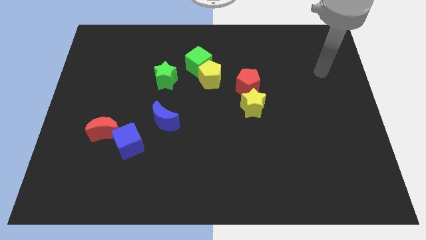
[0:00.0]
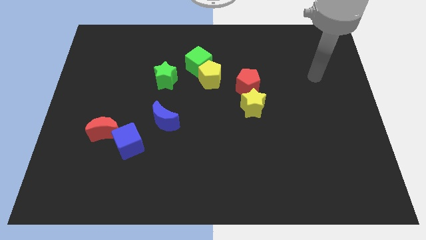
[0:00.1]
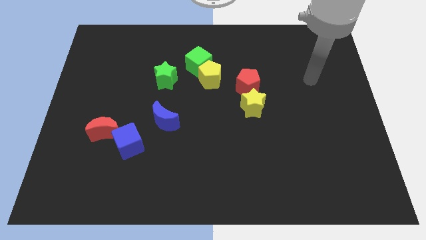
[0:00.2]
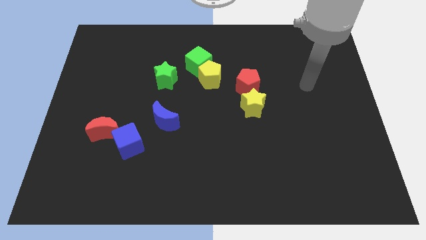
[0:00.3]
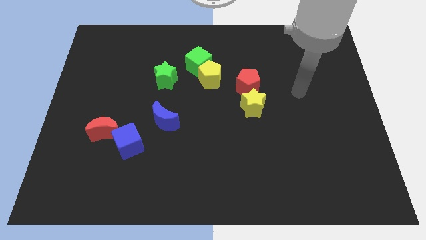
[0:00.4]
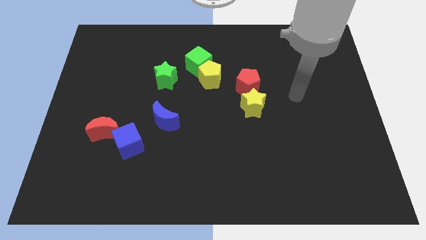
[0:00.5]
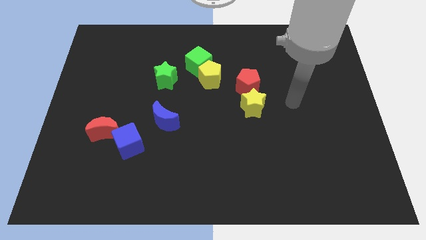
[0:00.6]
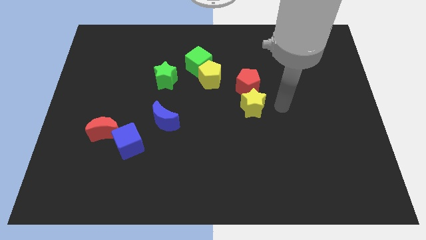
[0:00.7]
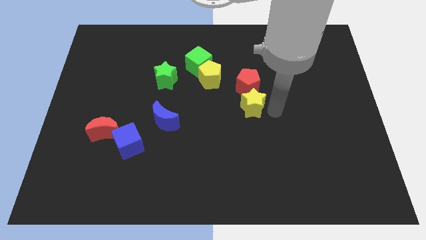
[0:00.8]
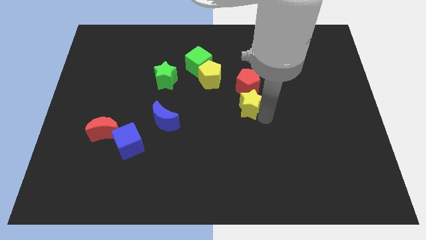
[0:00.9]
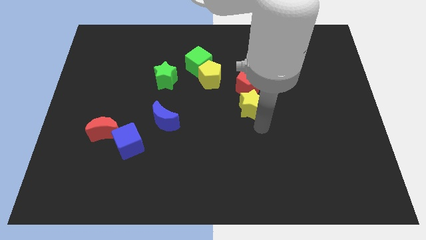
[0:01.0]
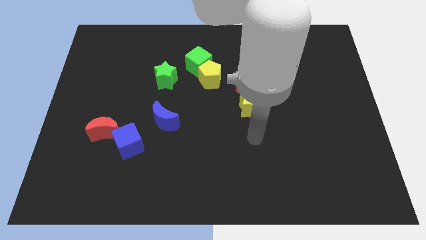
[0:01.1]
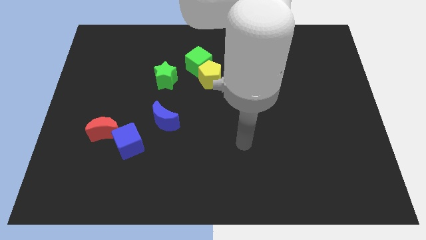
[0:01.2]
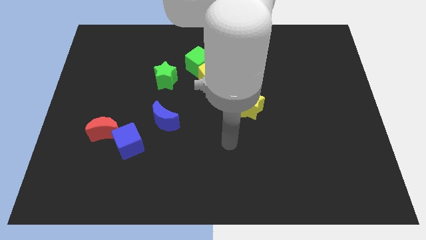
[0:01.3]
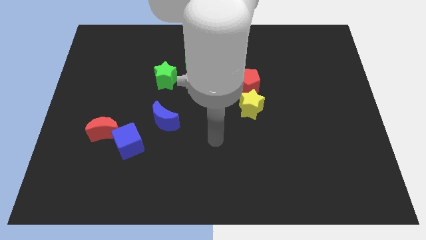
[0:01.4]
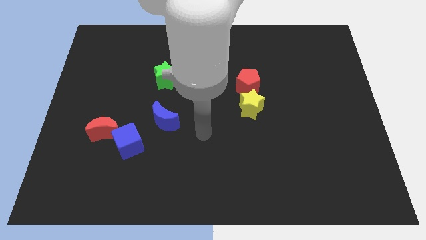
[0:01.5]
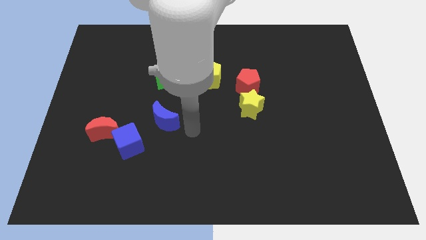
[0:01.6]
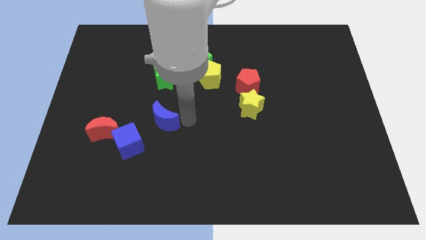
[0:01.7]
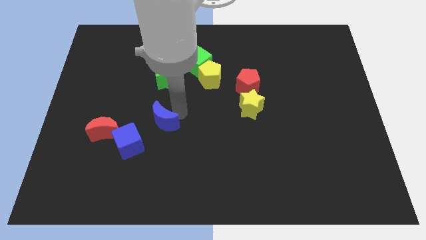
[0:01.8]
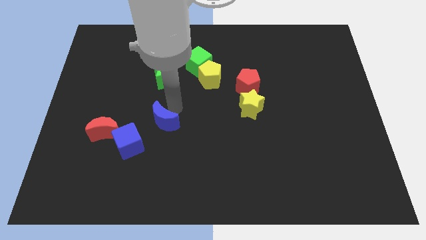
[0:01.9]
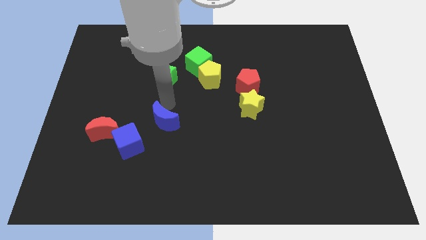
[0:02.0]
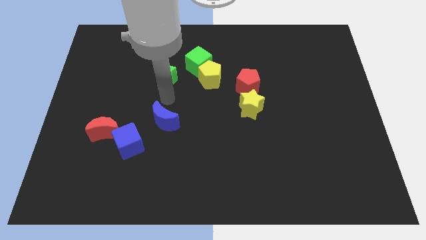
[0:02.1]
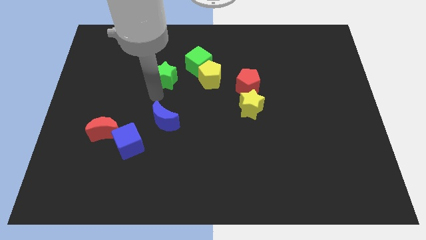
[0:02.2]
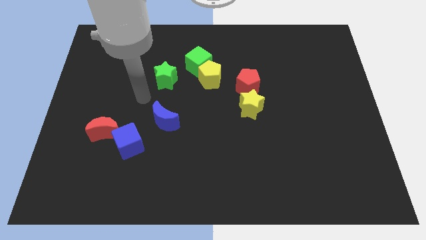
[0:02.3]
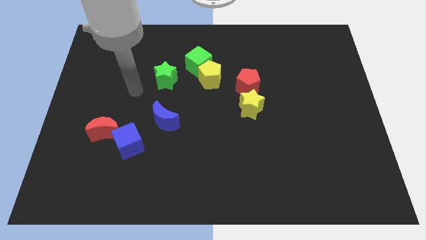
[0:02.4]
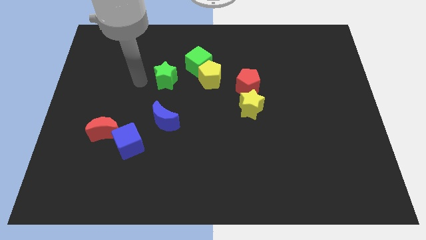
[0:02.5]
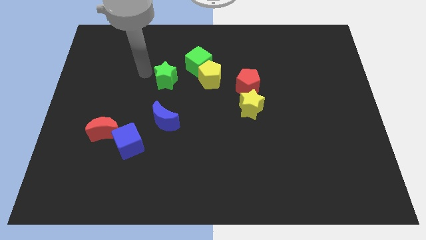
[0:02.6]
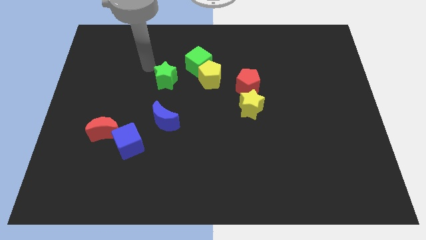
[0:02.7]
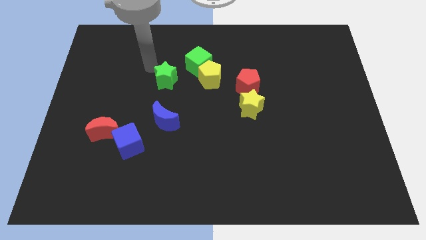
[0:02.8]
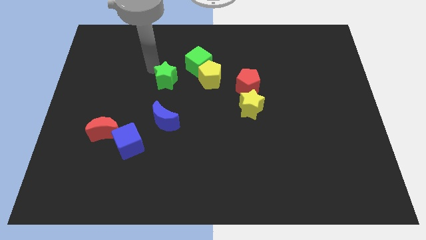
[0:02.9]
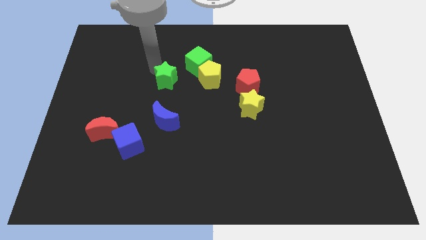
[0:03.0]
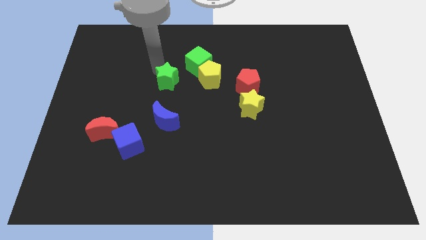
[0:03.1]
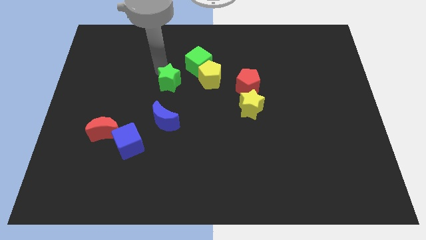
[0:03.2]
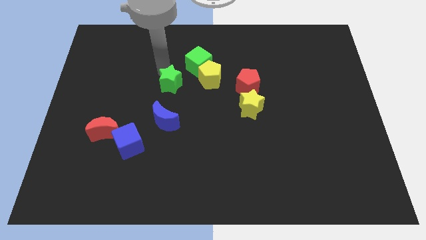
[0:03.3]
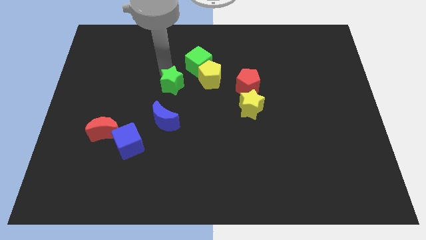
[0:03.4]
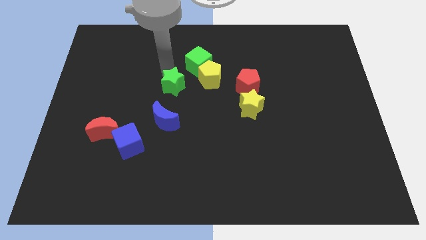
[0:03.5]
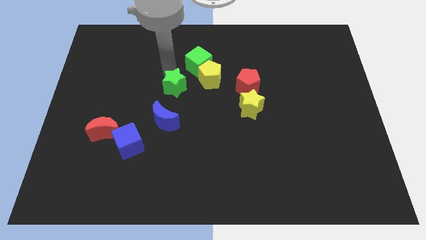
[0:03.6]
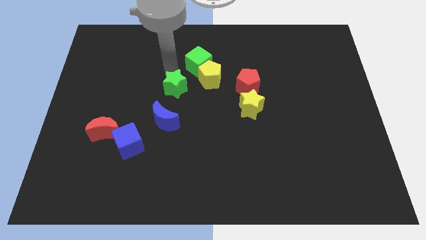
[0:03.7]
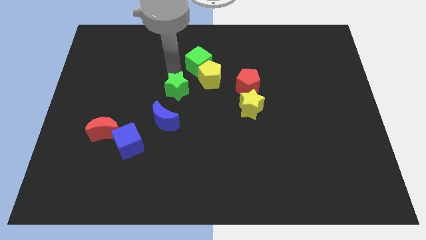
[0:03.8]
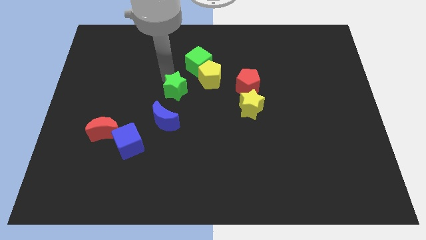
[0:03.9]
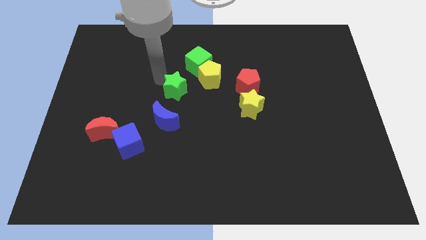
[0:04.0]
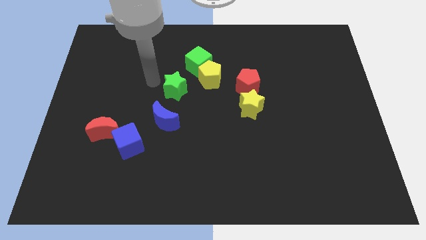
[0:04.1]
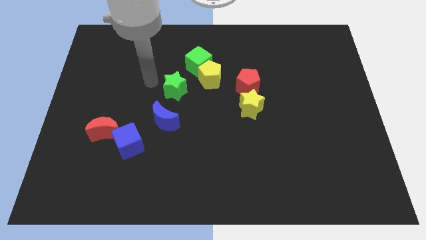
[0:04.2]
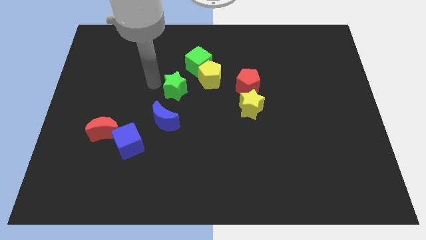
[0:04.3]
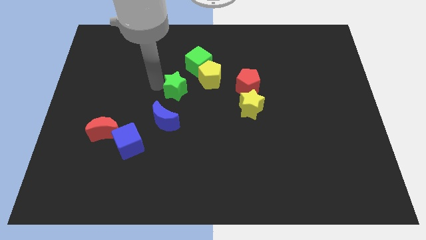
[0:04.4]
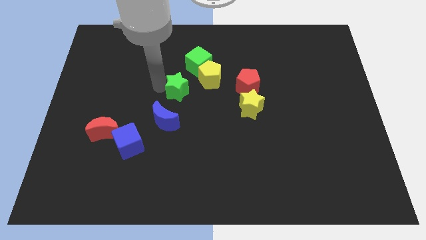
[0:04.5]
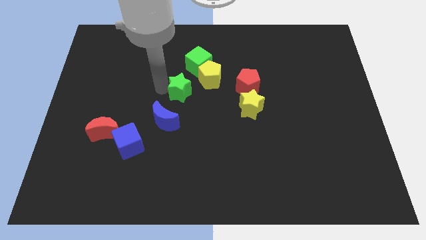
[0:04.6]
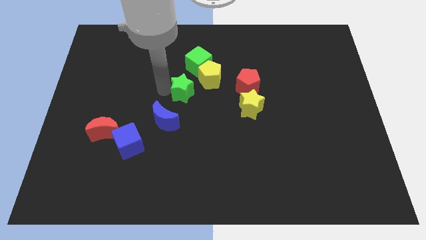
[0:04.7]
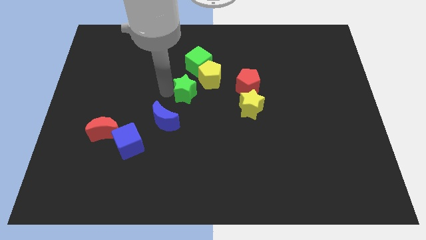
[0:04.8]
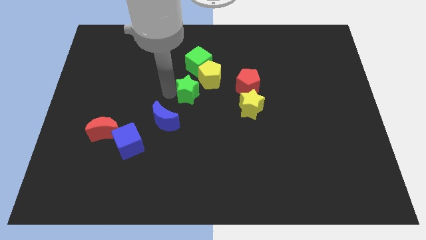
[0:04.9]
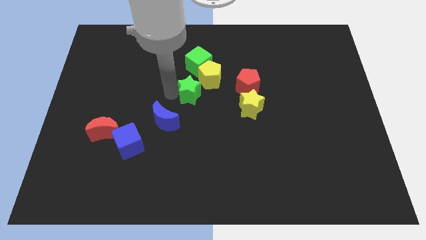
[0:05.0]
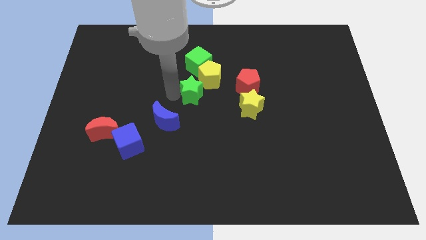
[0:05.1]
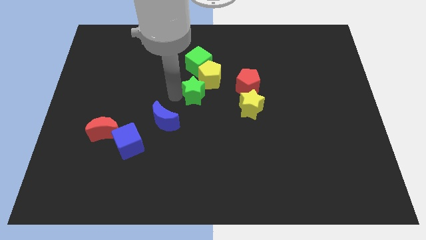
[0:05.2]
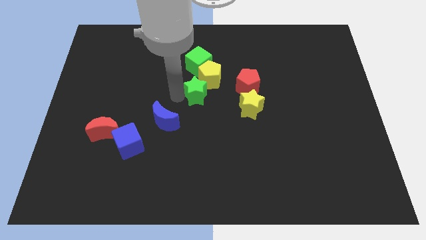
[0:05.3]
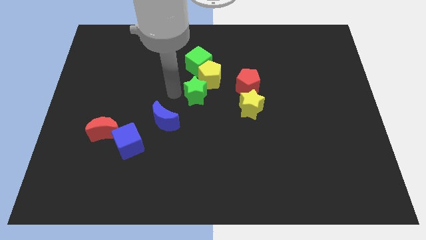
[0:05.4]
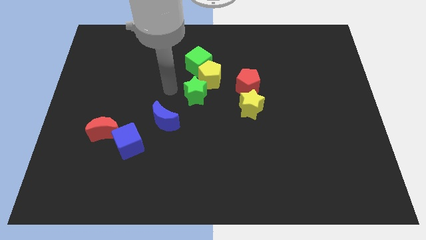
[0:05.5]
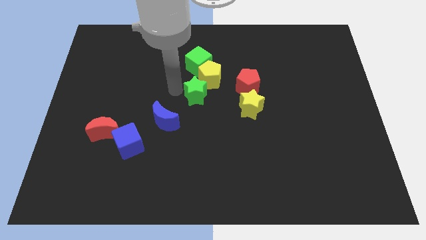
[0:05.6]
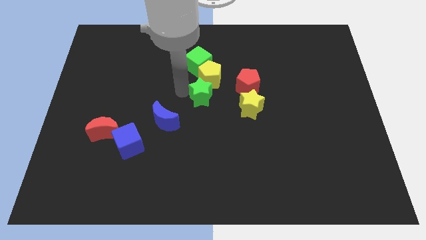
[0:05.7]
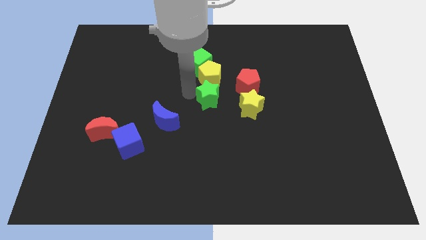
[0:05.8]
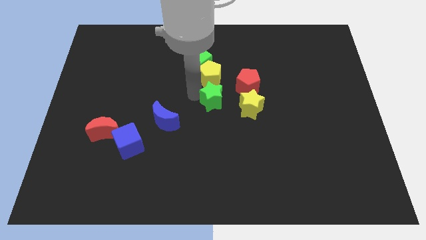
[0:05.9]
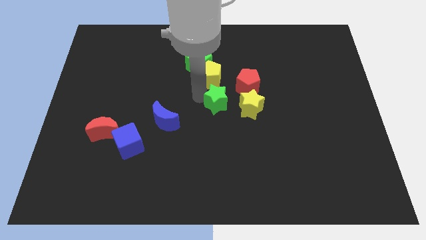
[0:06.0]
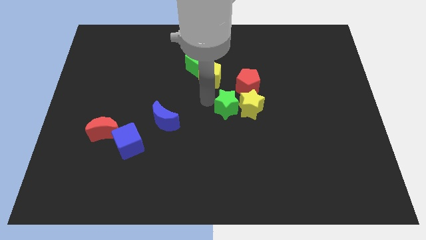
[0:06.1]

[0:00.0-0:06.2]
put the green star close to the yellow star

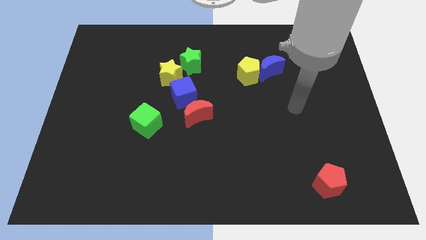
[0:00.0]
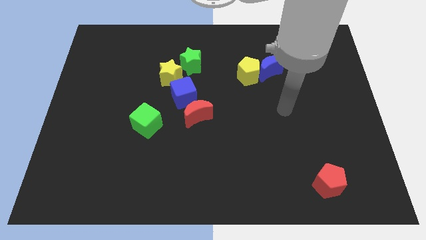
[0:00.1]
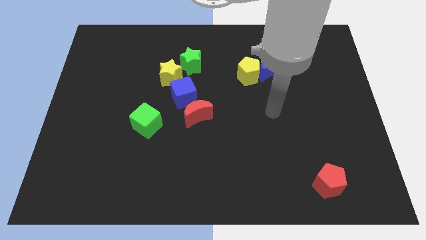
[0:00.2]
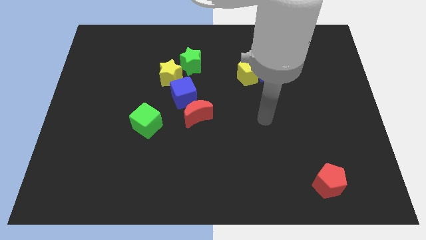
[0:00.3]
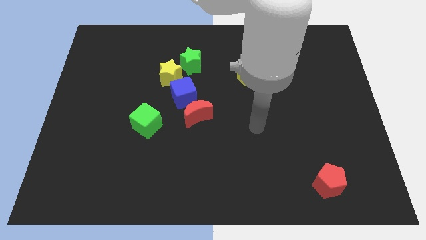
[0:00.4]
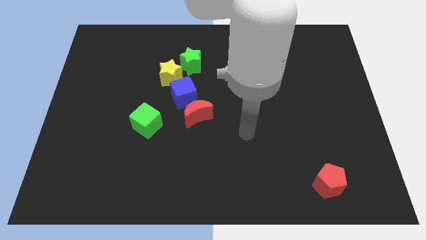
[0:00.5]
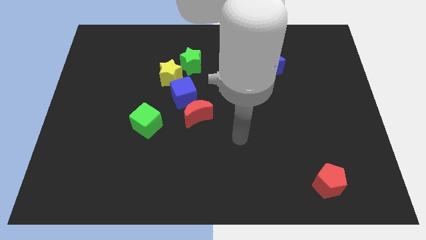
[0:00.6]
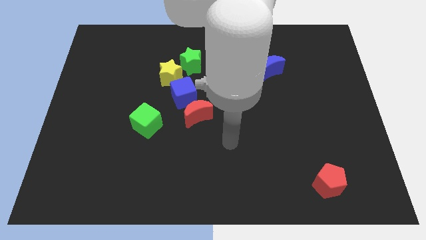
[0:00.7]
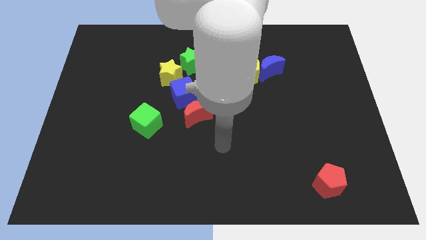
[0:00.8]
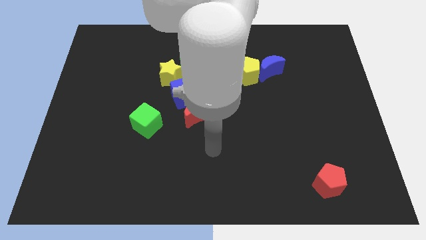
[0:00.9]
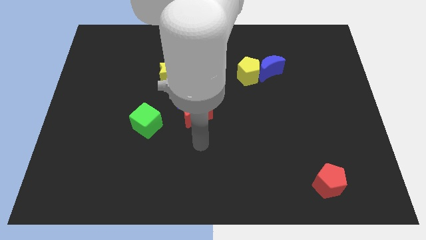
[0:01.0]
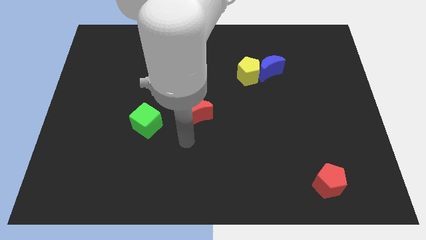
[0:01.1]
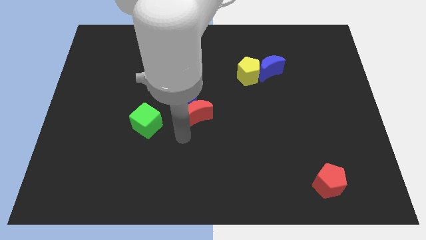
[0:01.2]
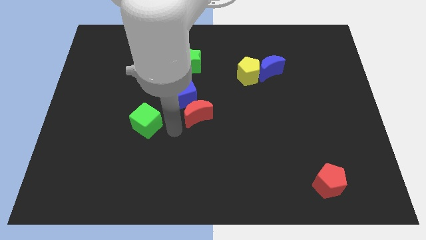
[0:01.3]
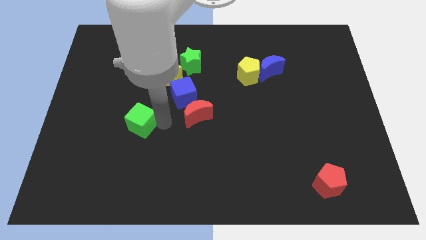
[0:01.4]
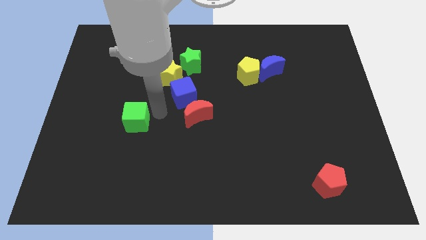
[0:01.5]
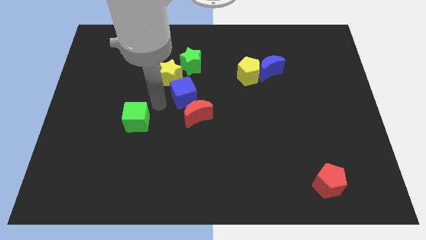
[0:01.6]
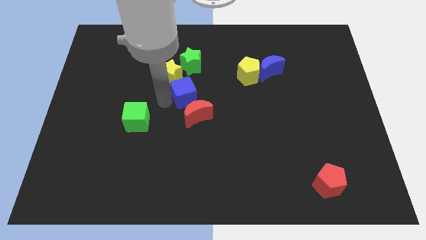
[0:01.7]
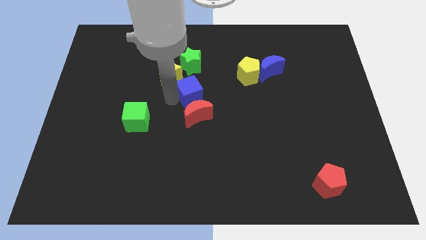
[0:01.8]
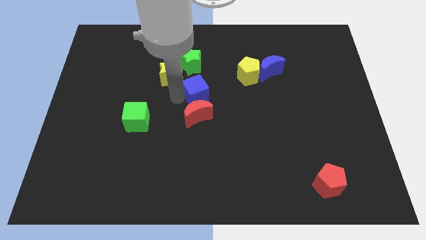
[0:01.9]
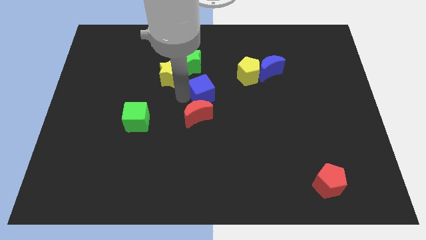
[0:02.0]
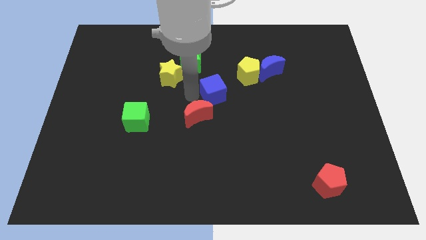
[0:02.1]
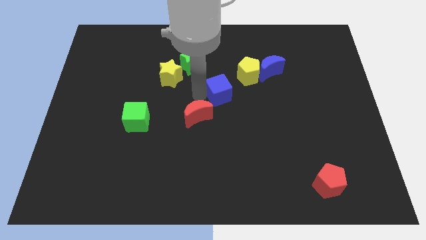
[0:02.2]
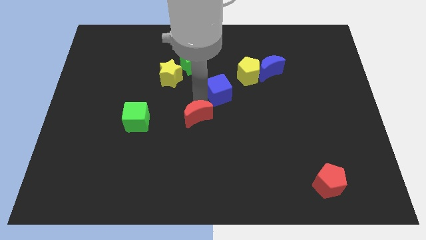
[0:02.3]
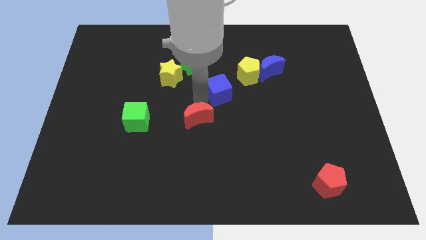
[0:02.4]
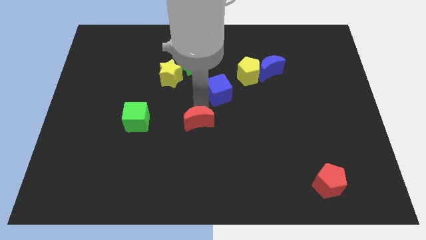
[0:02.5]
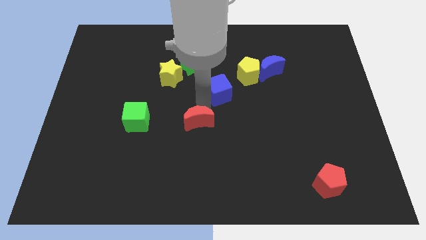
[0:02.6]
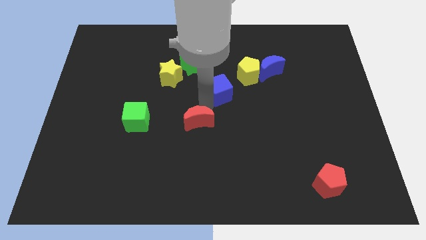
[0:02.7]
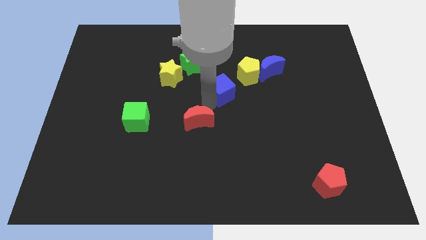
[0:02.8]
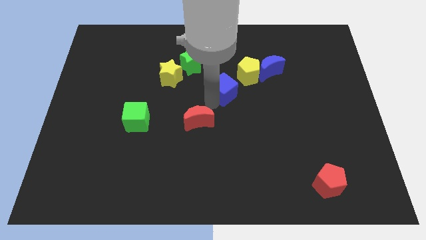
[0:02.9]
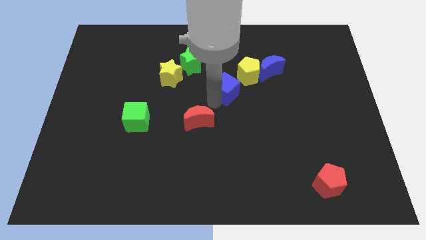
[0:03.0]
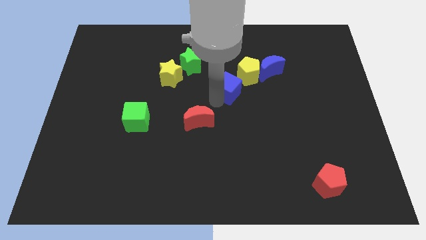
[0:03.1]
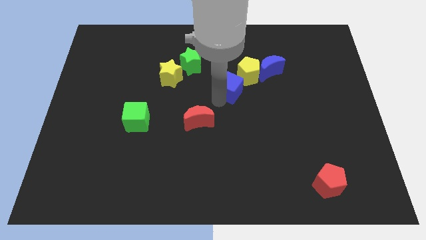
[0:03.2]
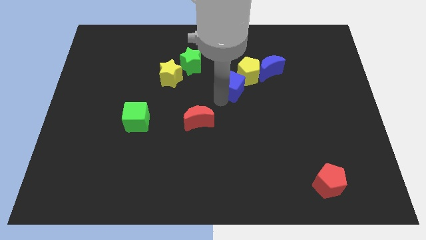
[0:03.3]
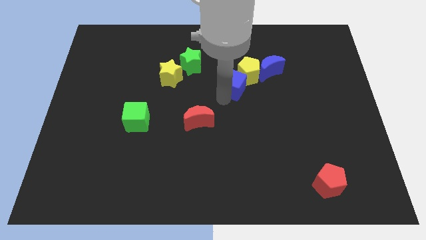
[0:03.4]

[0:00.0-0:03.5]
push the blue cube towards the yellow pentagon
